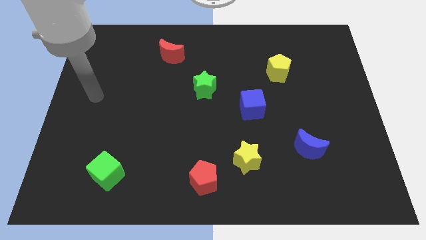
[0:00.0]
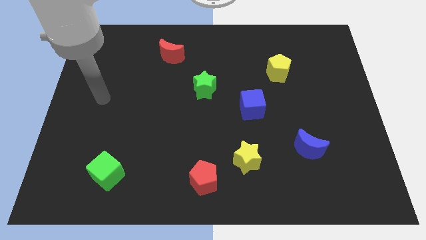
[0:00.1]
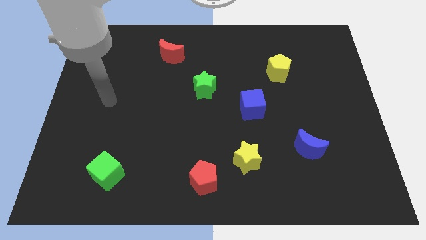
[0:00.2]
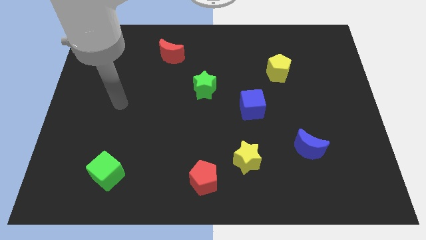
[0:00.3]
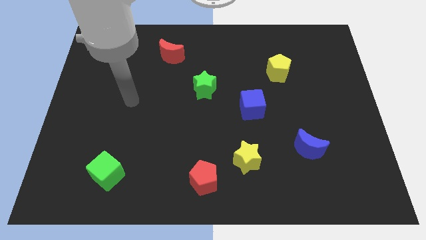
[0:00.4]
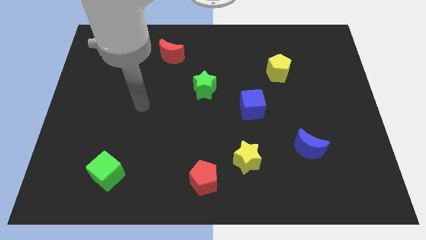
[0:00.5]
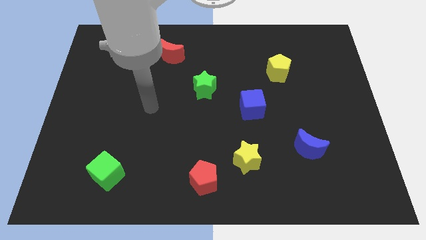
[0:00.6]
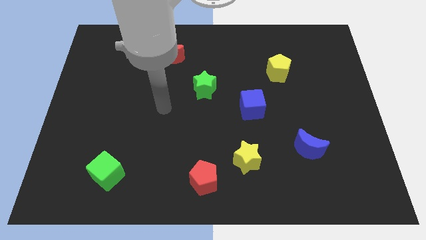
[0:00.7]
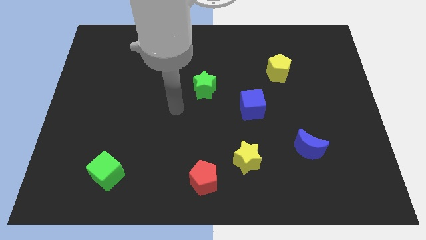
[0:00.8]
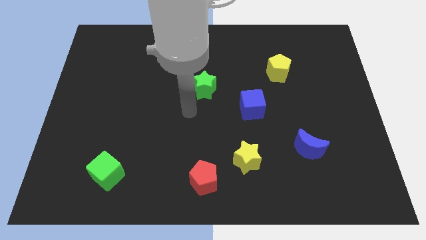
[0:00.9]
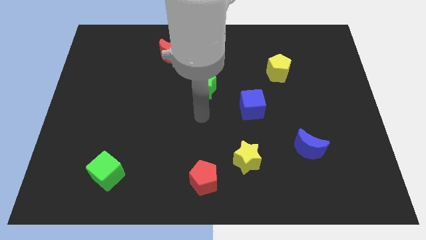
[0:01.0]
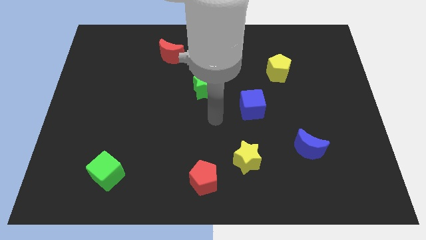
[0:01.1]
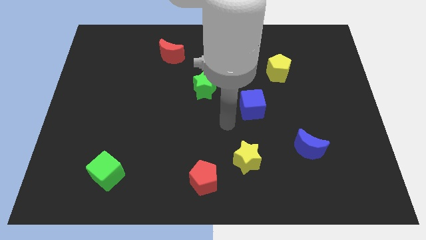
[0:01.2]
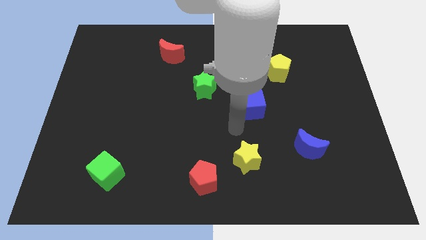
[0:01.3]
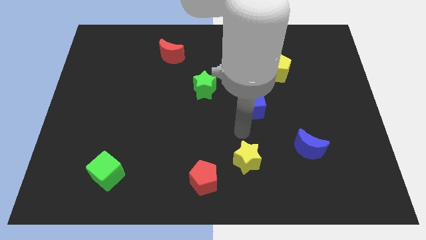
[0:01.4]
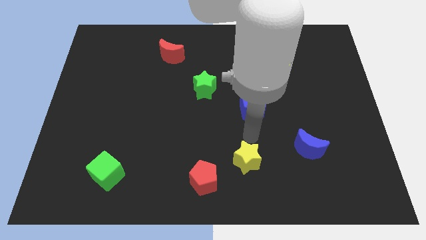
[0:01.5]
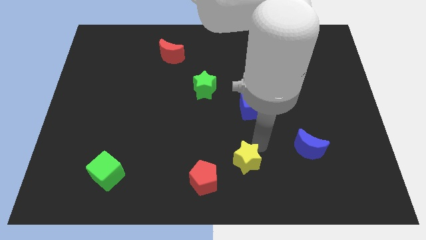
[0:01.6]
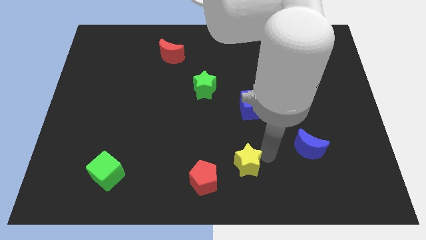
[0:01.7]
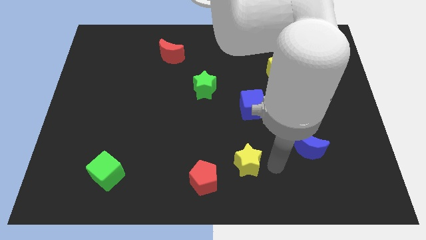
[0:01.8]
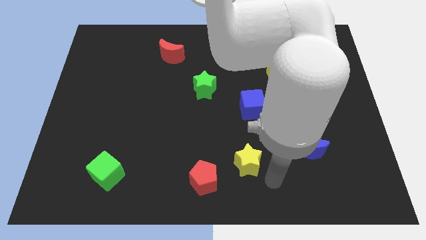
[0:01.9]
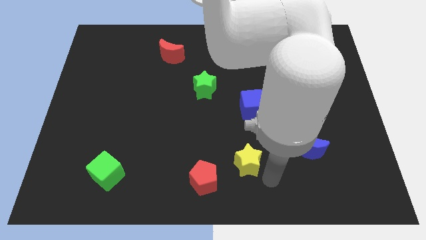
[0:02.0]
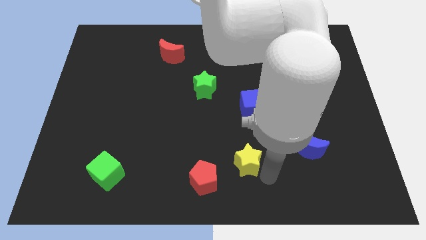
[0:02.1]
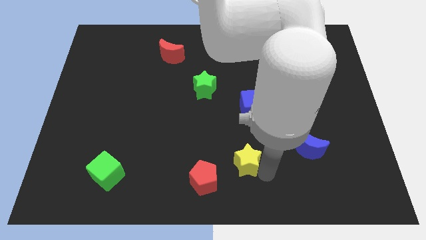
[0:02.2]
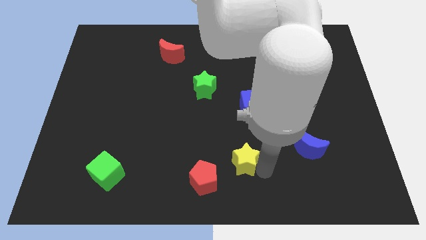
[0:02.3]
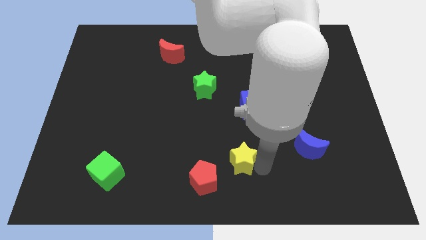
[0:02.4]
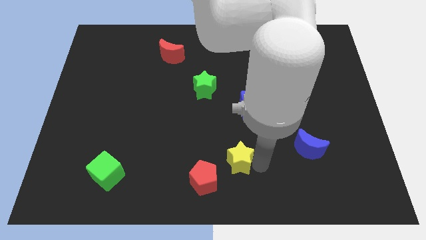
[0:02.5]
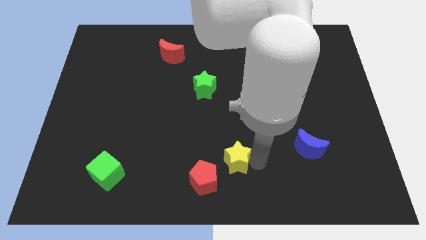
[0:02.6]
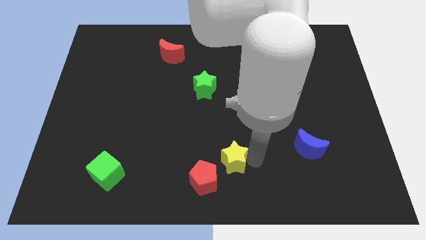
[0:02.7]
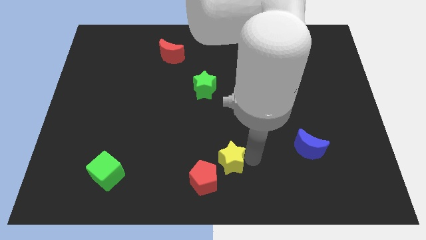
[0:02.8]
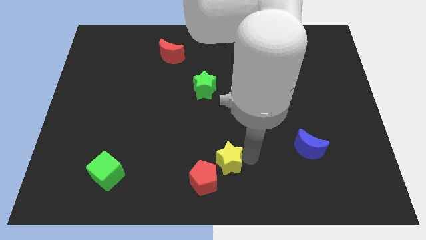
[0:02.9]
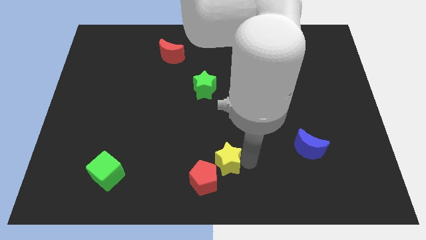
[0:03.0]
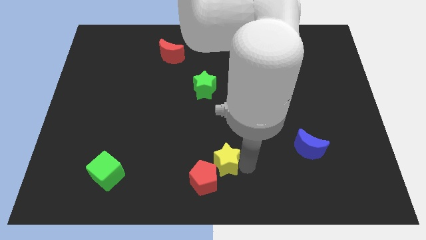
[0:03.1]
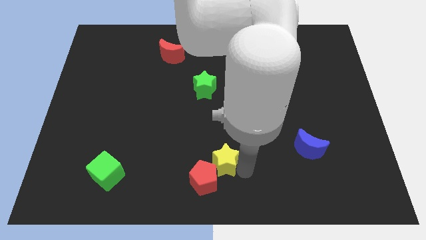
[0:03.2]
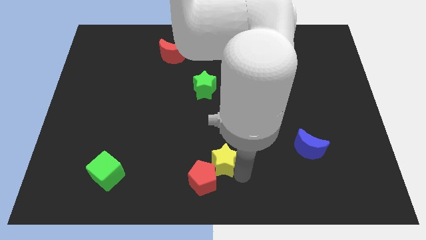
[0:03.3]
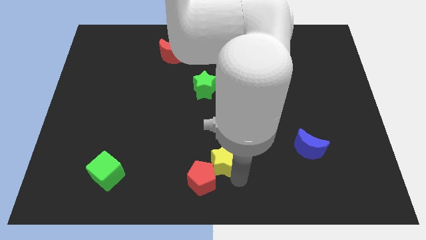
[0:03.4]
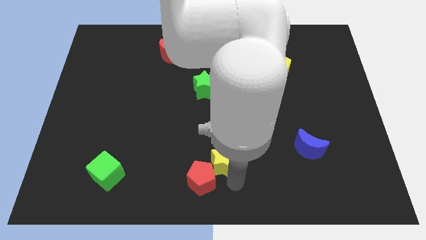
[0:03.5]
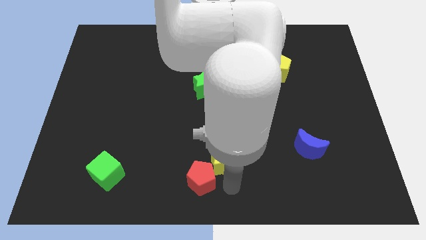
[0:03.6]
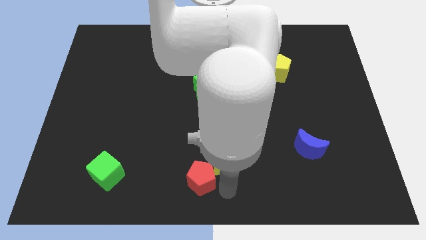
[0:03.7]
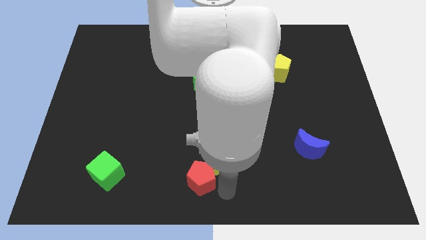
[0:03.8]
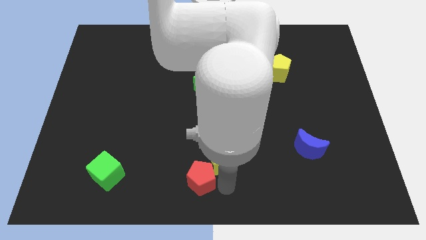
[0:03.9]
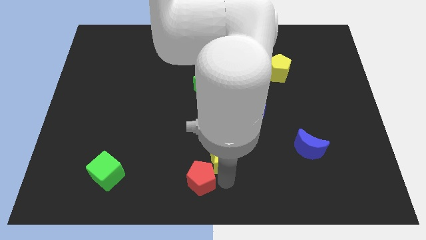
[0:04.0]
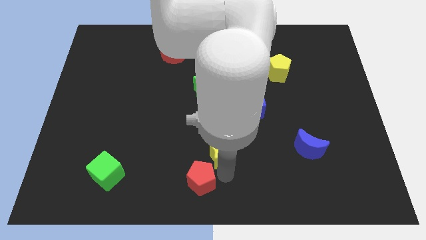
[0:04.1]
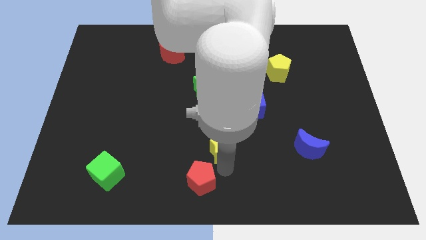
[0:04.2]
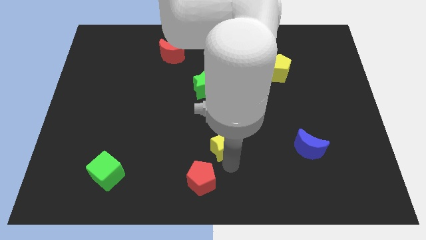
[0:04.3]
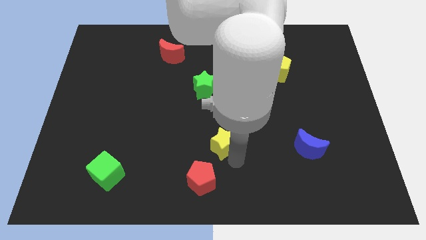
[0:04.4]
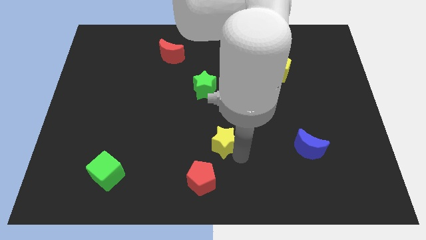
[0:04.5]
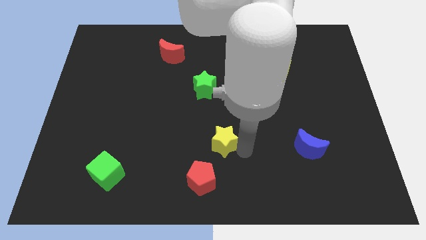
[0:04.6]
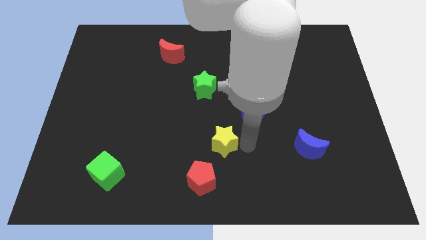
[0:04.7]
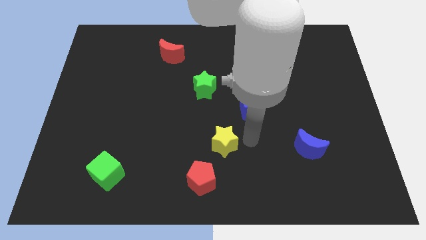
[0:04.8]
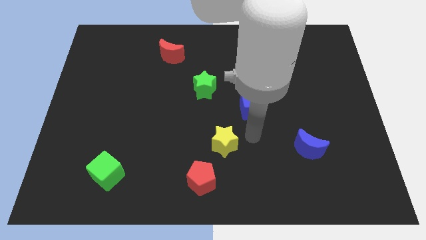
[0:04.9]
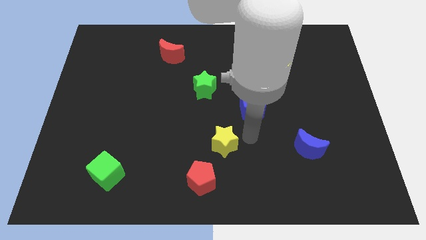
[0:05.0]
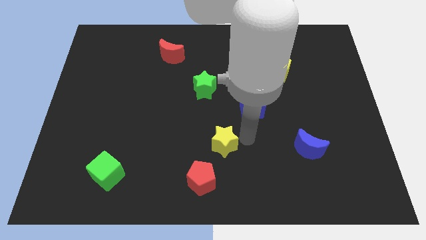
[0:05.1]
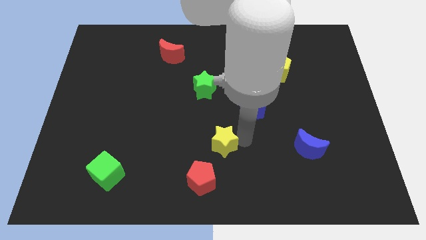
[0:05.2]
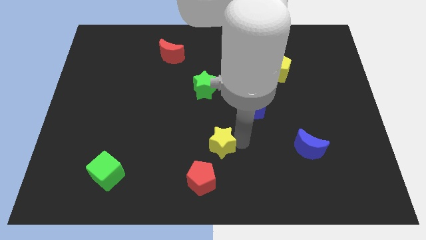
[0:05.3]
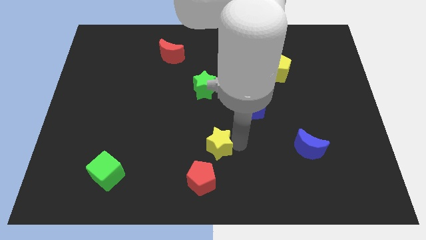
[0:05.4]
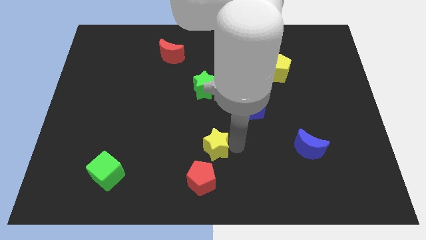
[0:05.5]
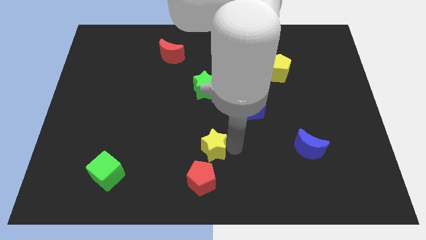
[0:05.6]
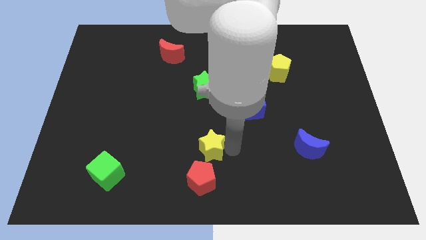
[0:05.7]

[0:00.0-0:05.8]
move the yellow star left a bit

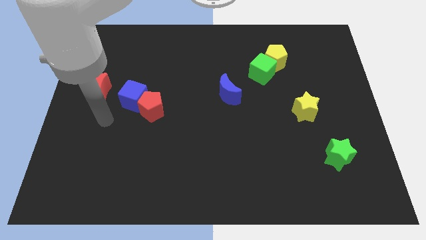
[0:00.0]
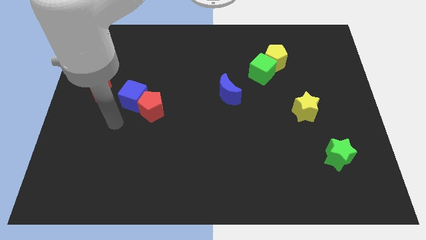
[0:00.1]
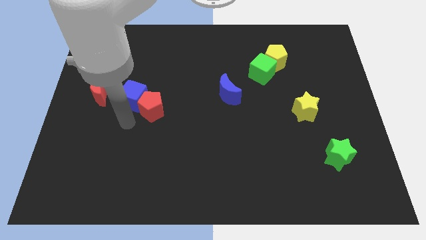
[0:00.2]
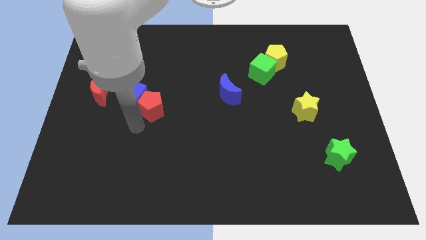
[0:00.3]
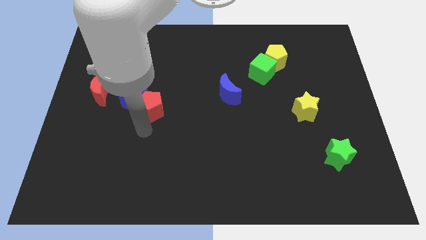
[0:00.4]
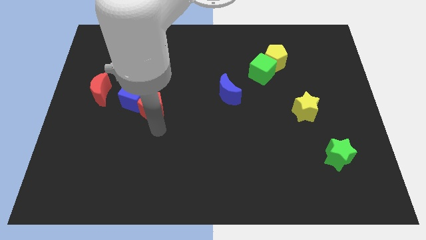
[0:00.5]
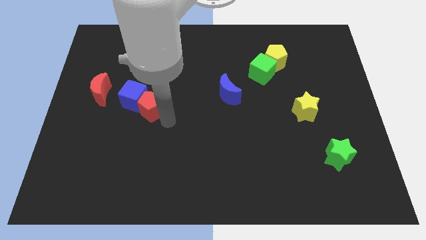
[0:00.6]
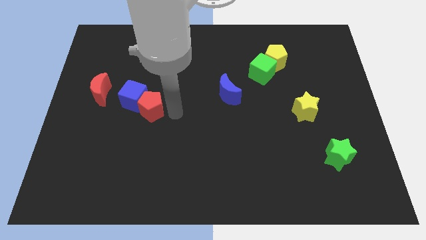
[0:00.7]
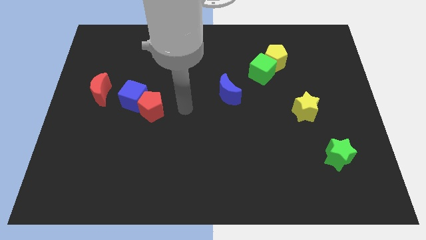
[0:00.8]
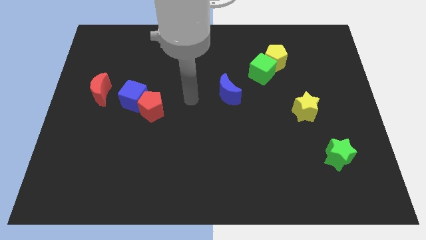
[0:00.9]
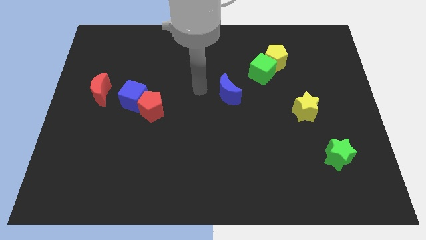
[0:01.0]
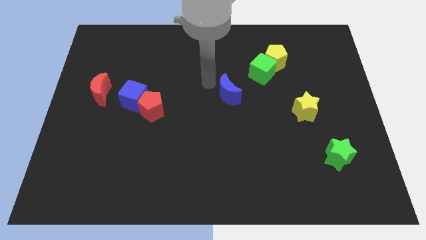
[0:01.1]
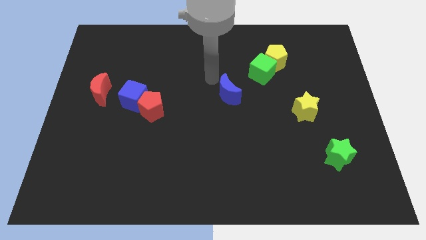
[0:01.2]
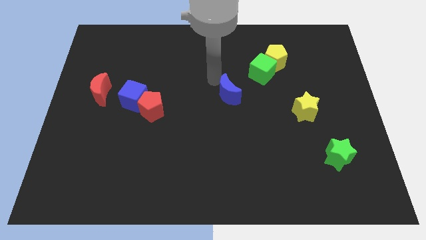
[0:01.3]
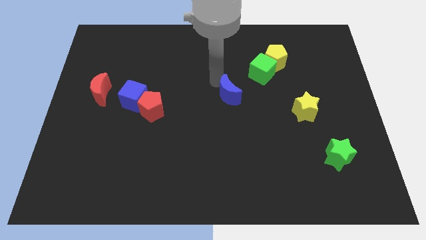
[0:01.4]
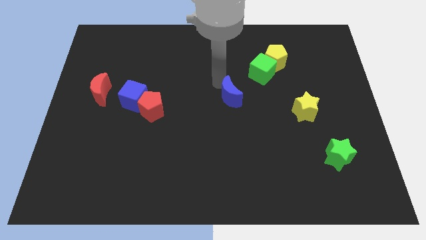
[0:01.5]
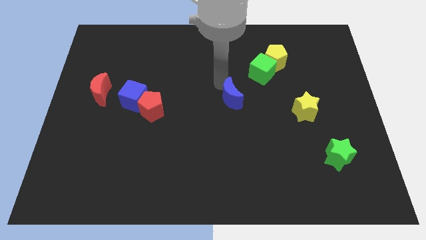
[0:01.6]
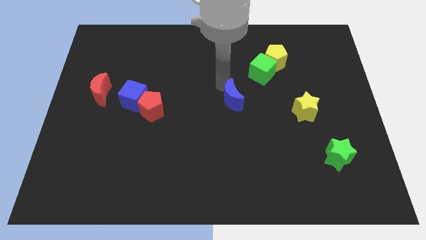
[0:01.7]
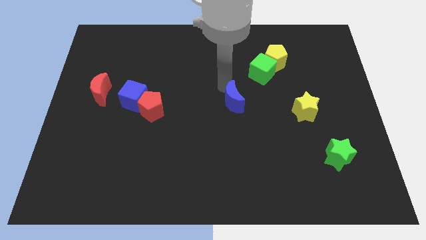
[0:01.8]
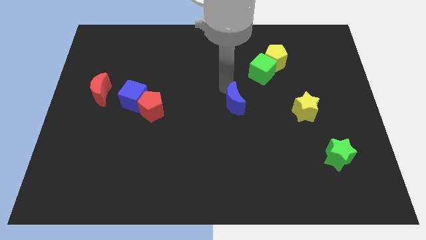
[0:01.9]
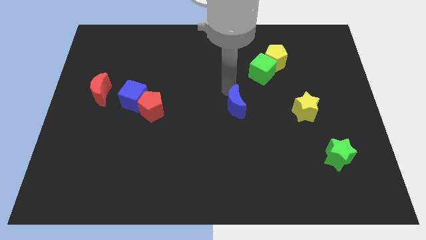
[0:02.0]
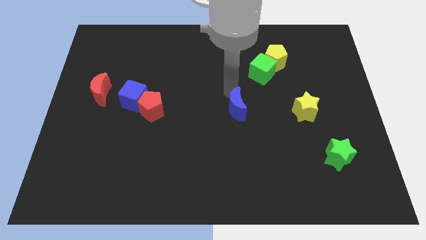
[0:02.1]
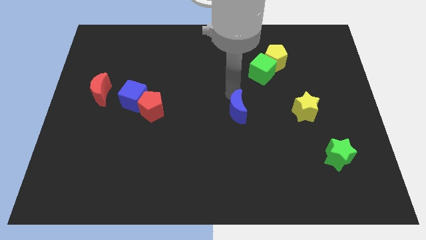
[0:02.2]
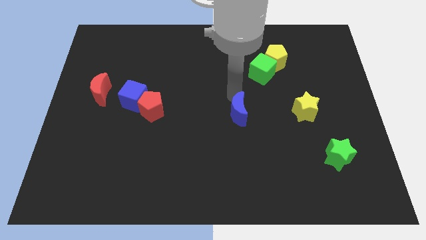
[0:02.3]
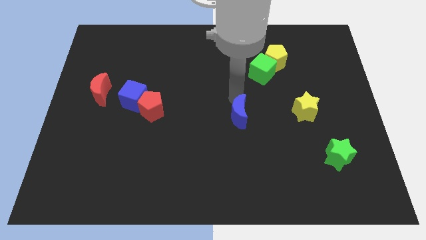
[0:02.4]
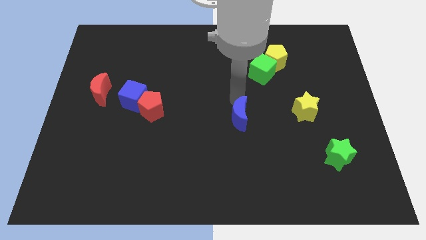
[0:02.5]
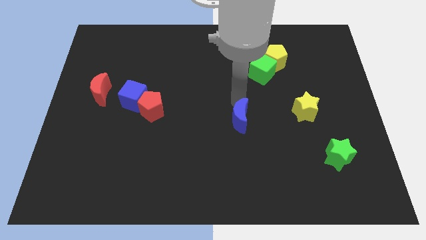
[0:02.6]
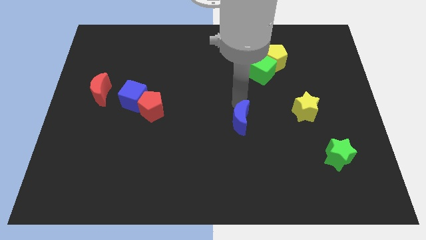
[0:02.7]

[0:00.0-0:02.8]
slide the blue moon diagonally downwards and to the right a little bit
